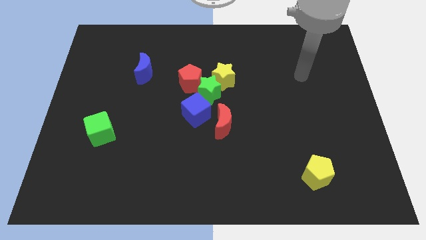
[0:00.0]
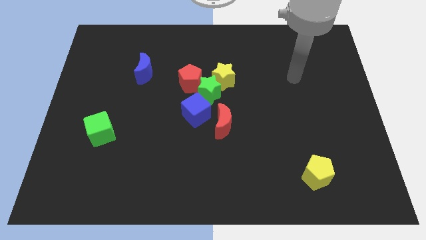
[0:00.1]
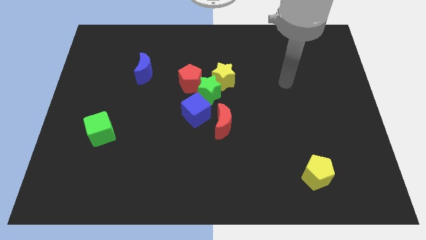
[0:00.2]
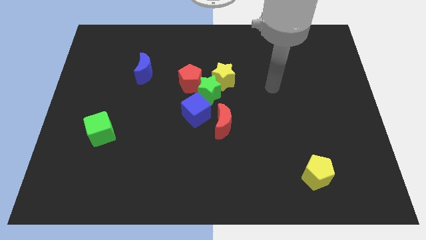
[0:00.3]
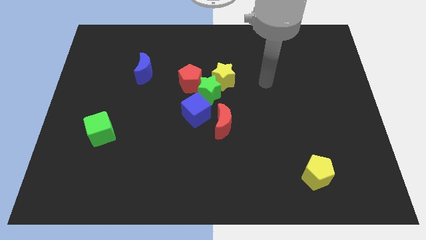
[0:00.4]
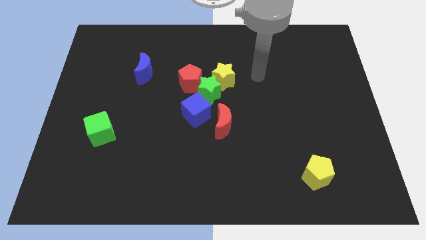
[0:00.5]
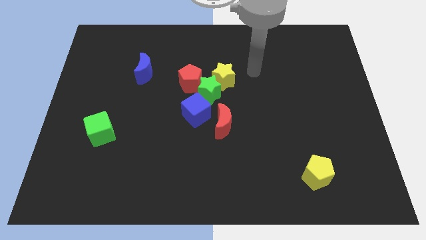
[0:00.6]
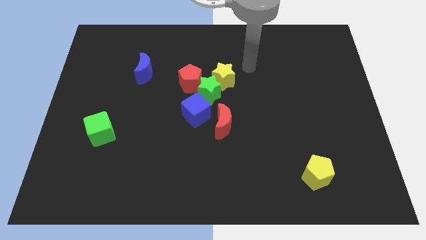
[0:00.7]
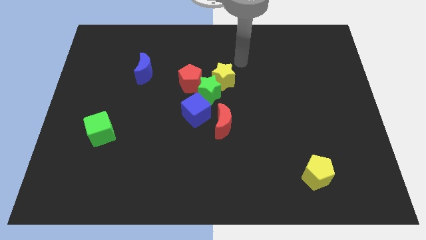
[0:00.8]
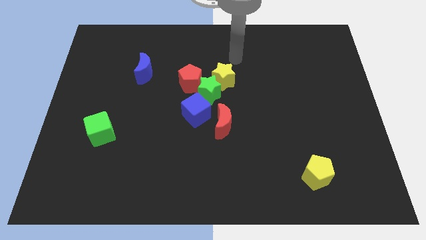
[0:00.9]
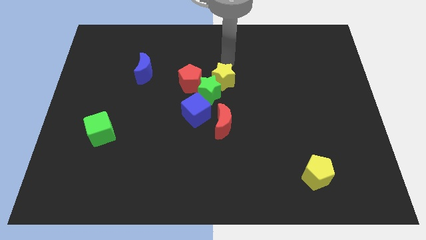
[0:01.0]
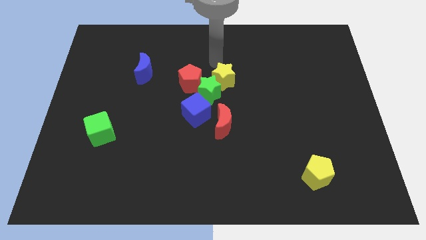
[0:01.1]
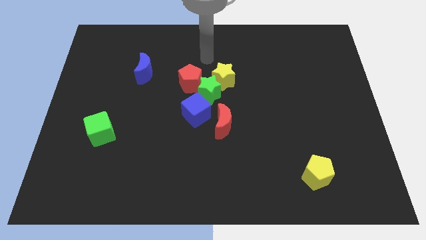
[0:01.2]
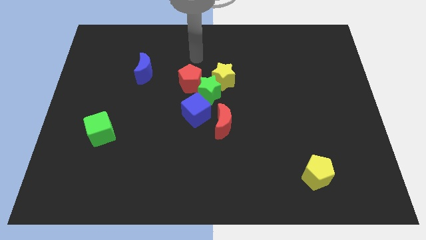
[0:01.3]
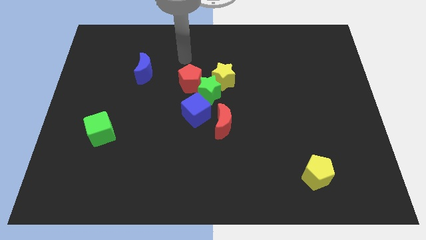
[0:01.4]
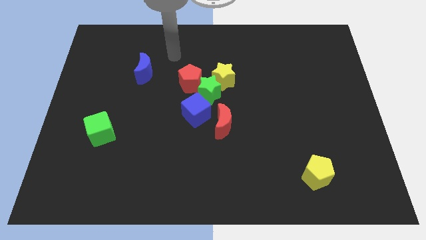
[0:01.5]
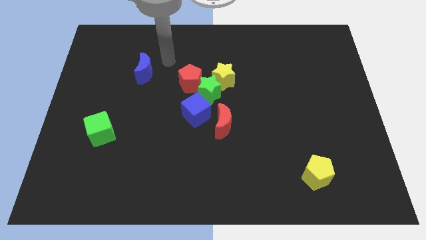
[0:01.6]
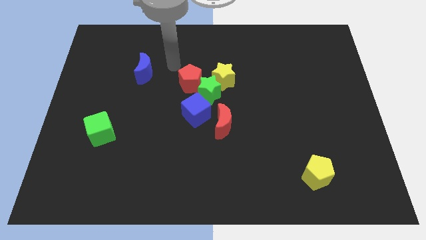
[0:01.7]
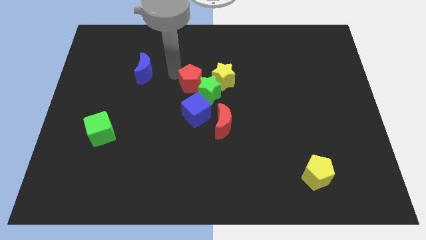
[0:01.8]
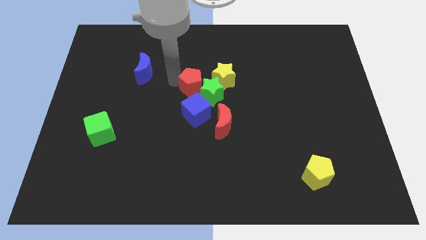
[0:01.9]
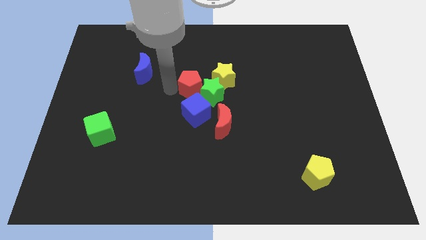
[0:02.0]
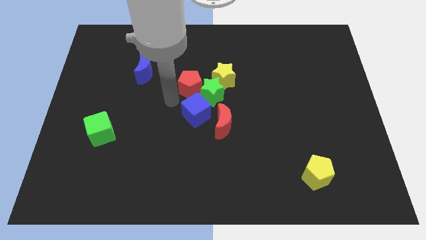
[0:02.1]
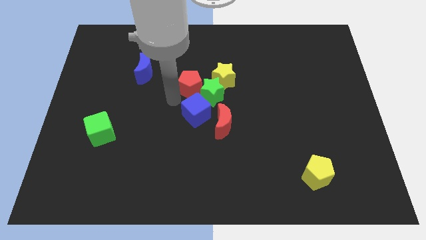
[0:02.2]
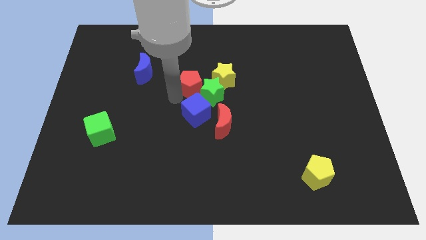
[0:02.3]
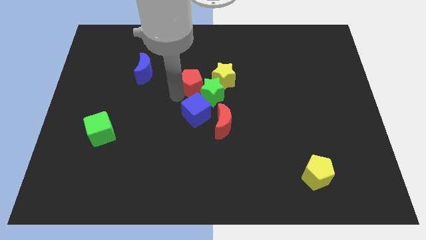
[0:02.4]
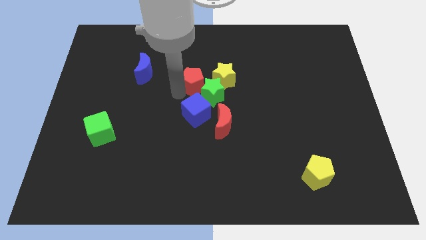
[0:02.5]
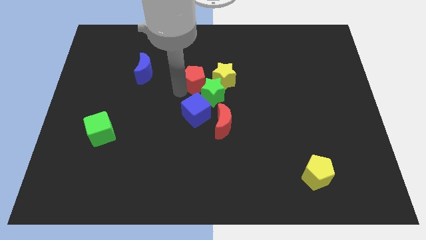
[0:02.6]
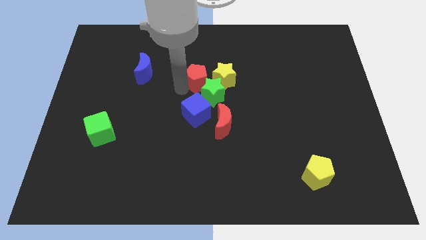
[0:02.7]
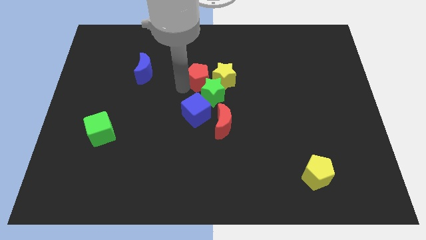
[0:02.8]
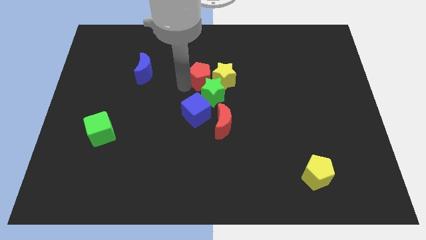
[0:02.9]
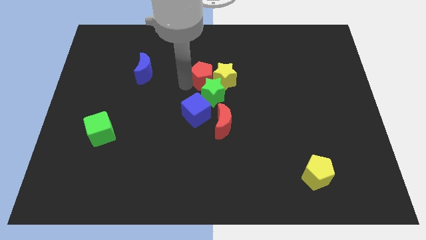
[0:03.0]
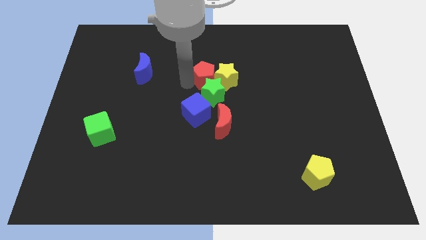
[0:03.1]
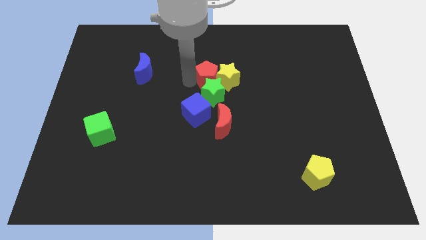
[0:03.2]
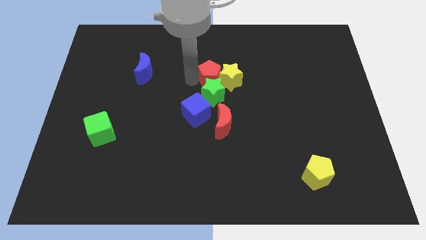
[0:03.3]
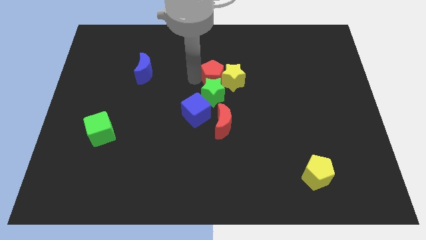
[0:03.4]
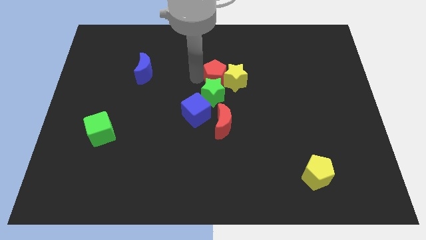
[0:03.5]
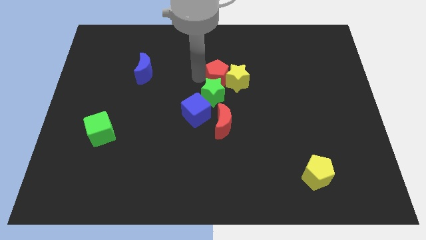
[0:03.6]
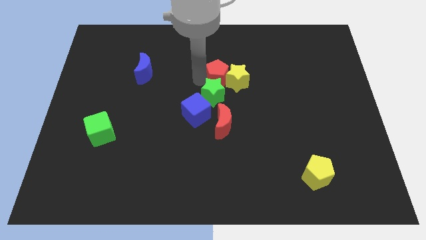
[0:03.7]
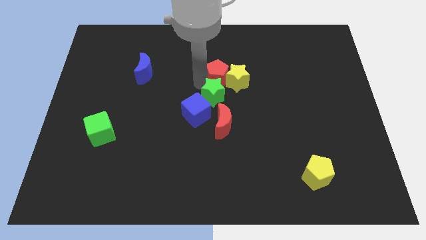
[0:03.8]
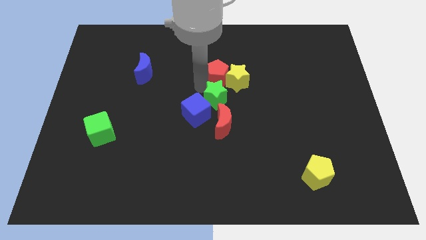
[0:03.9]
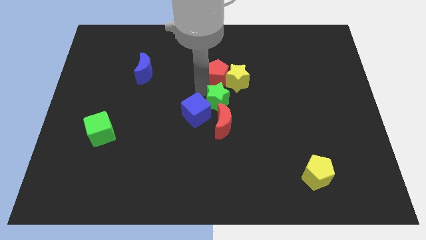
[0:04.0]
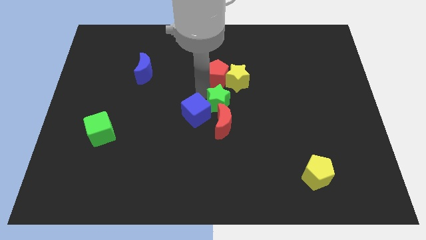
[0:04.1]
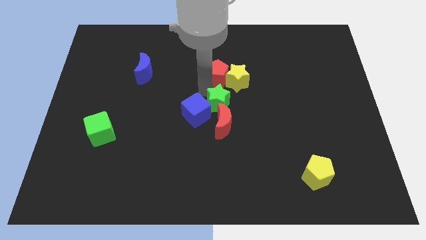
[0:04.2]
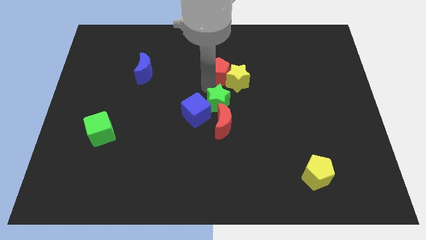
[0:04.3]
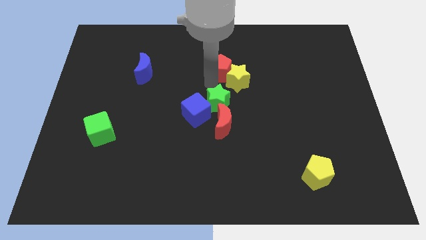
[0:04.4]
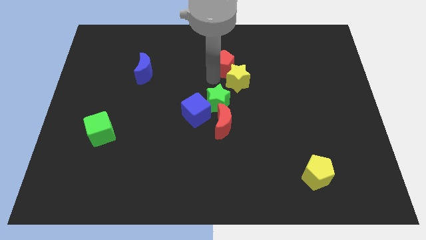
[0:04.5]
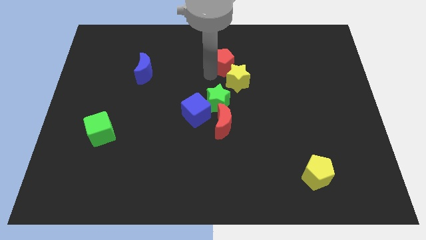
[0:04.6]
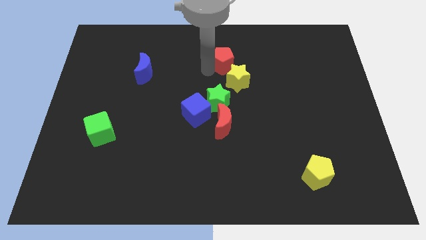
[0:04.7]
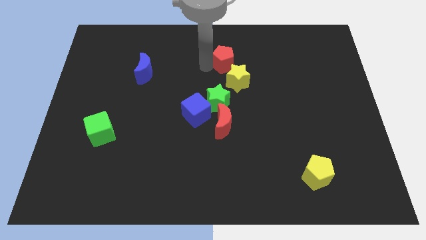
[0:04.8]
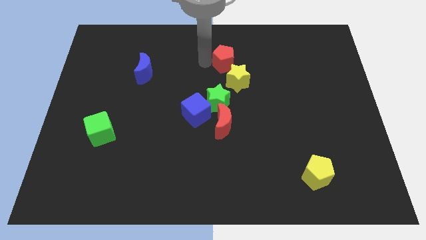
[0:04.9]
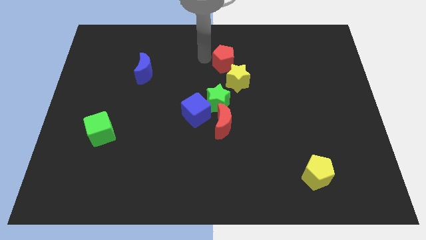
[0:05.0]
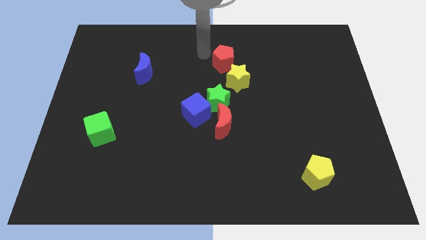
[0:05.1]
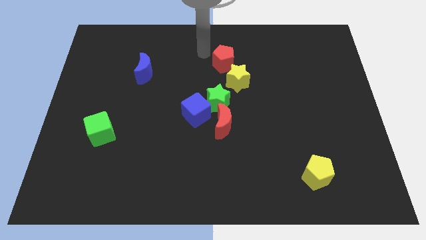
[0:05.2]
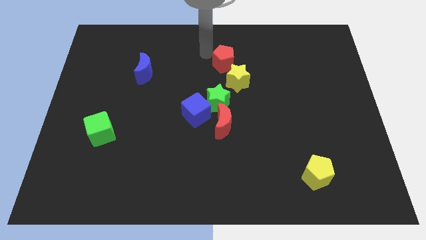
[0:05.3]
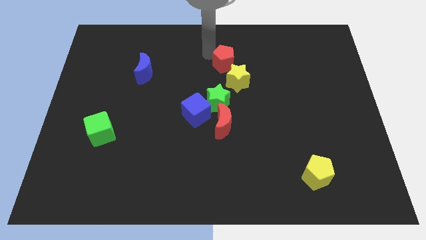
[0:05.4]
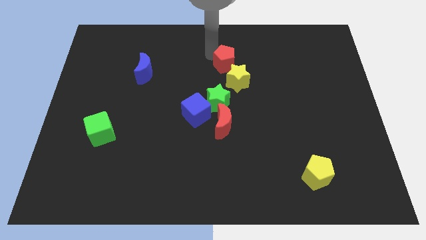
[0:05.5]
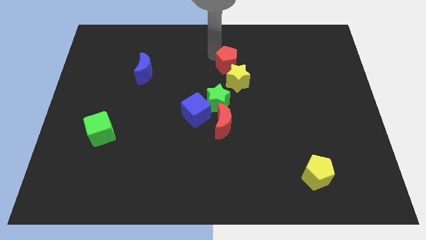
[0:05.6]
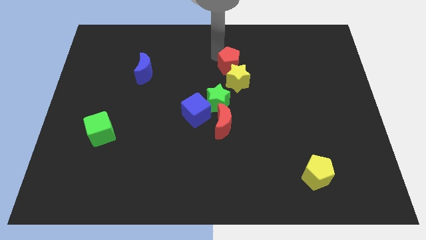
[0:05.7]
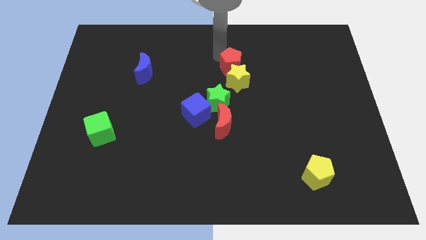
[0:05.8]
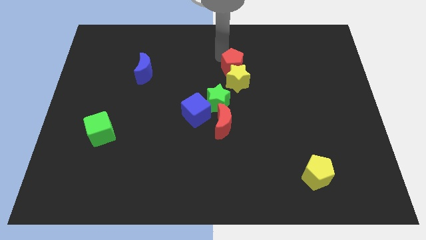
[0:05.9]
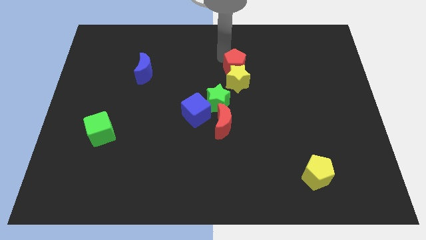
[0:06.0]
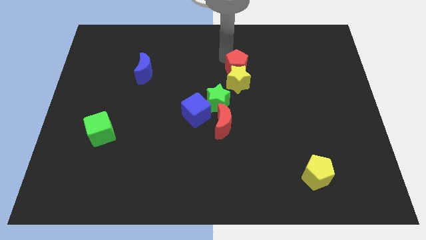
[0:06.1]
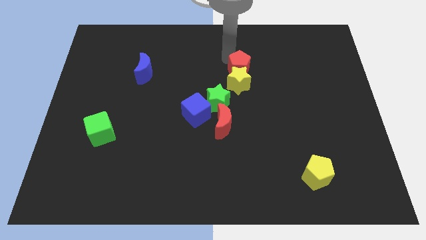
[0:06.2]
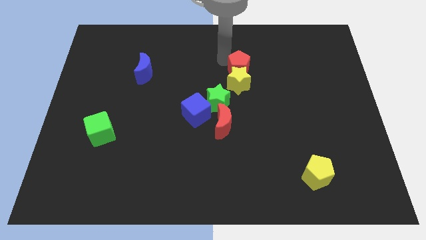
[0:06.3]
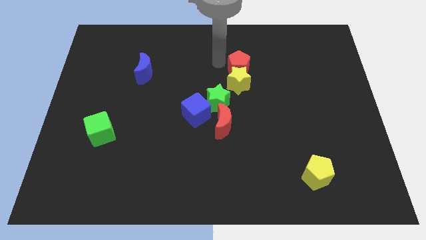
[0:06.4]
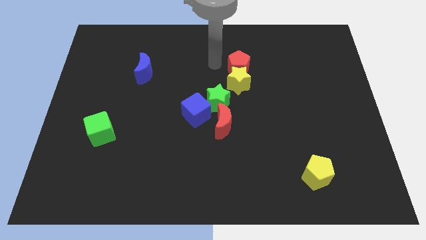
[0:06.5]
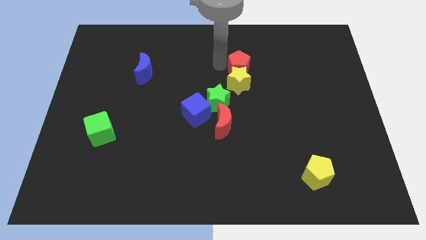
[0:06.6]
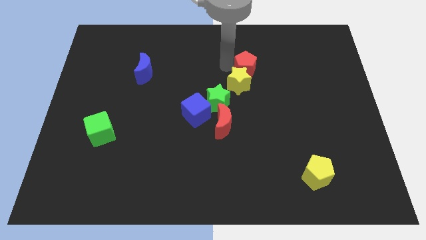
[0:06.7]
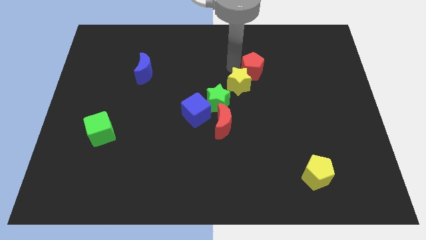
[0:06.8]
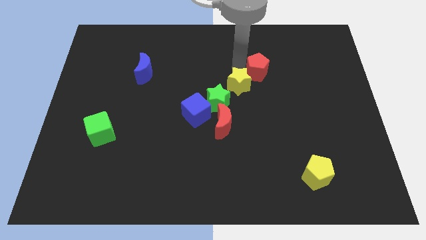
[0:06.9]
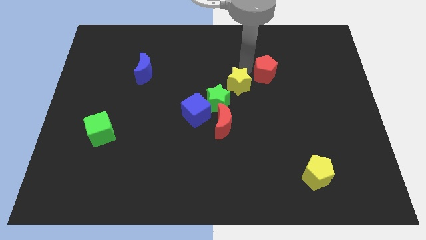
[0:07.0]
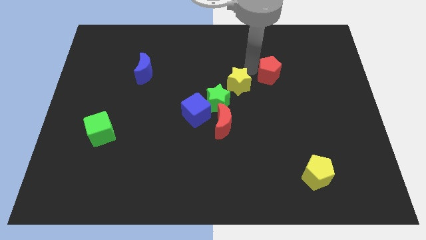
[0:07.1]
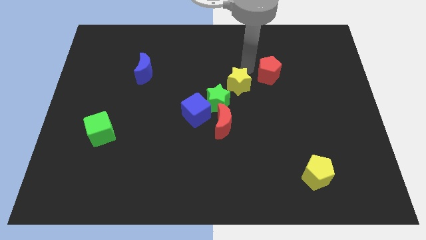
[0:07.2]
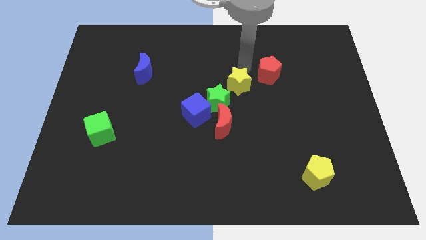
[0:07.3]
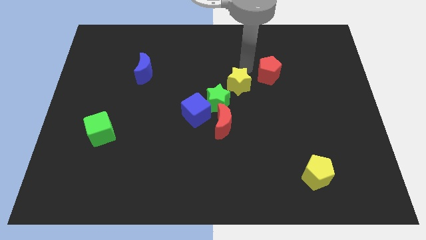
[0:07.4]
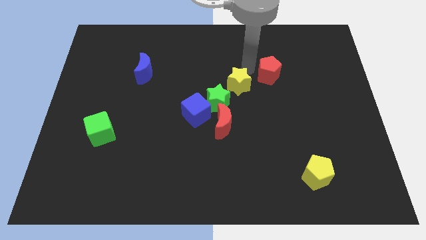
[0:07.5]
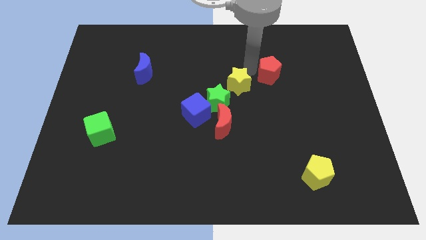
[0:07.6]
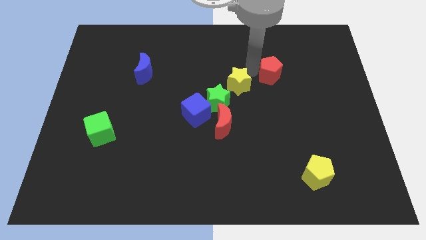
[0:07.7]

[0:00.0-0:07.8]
slide the red pentagon to the right

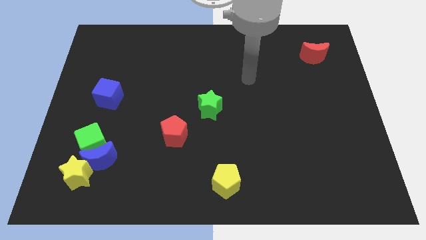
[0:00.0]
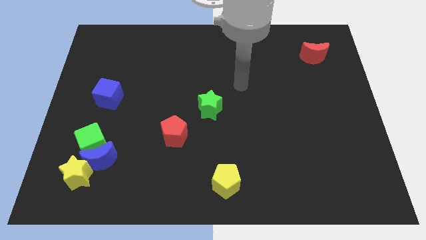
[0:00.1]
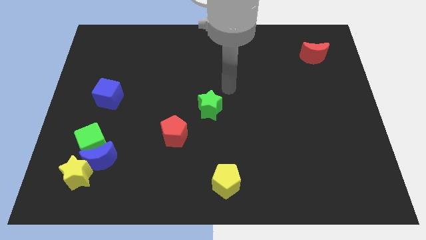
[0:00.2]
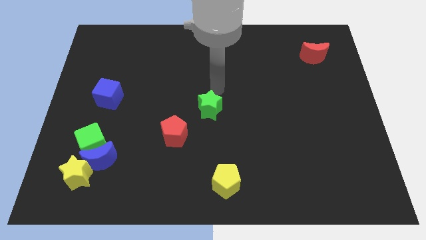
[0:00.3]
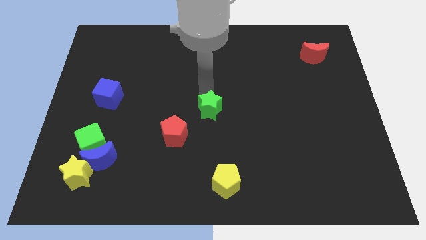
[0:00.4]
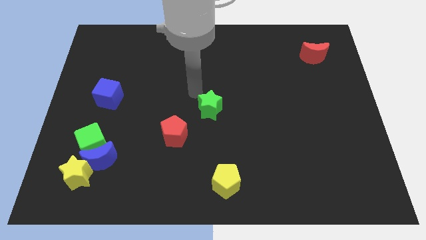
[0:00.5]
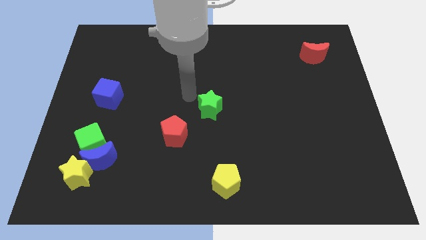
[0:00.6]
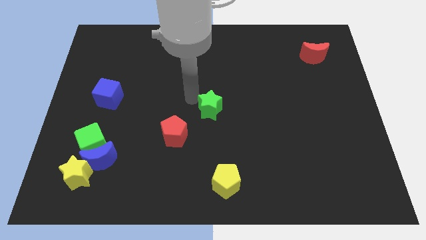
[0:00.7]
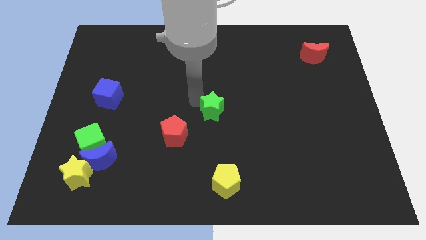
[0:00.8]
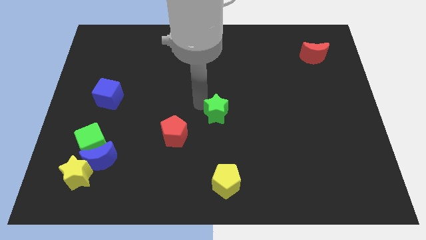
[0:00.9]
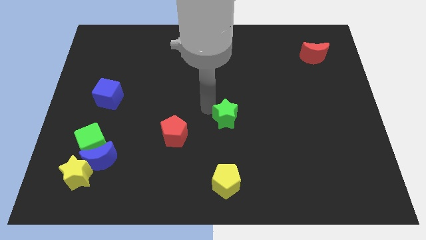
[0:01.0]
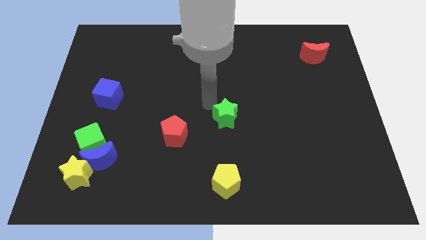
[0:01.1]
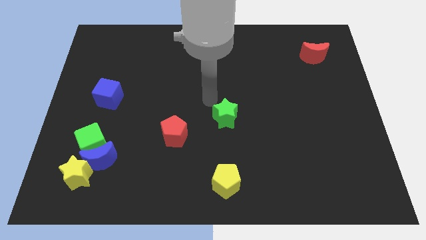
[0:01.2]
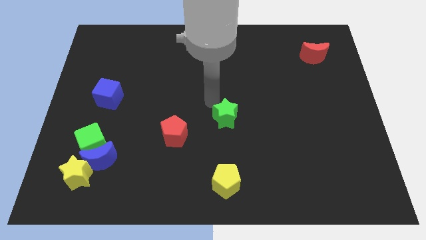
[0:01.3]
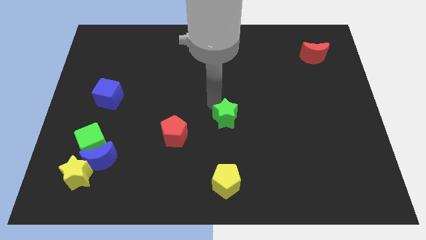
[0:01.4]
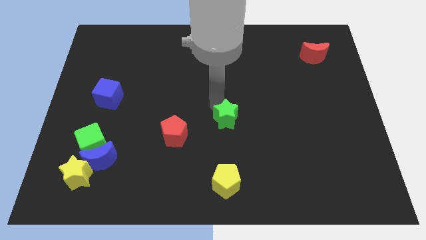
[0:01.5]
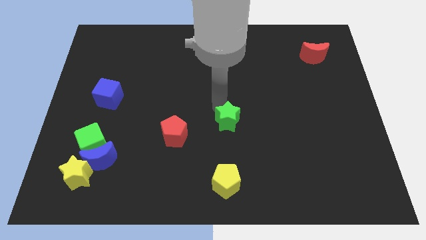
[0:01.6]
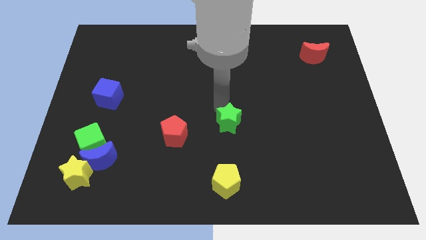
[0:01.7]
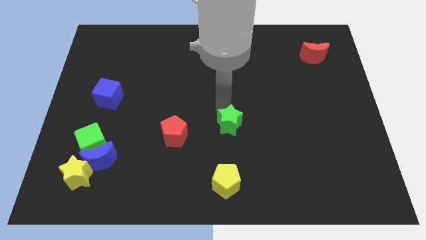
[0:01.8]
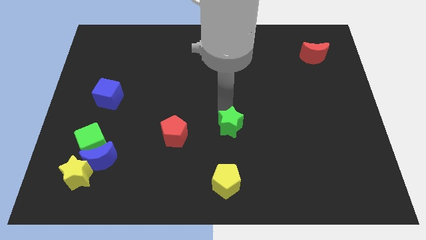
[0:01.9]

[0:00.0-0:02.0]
slide the green star somewhat downwards and then right
